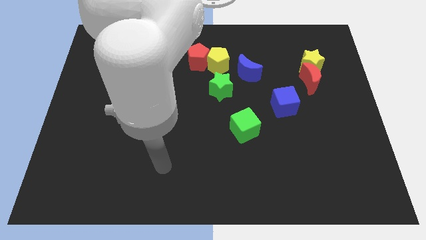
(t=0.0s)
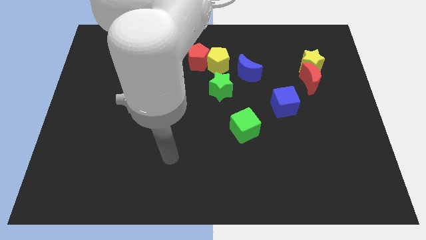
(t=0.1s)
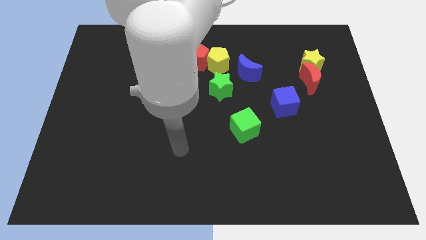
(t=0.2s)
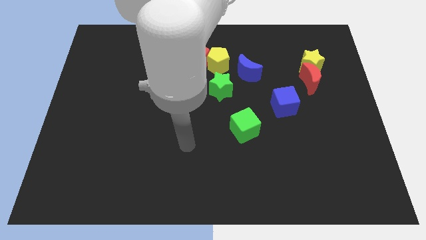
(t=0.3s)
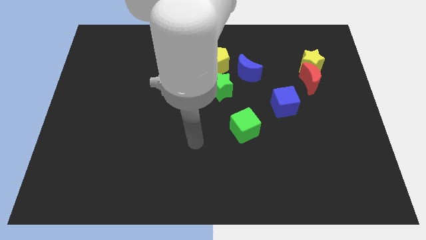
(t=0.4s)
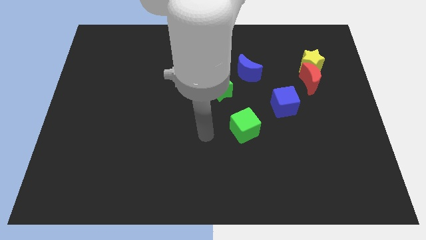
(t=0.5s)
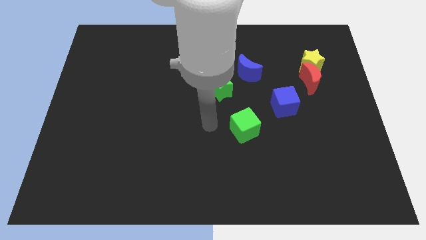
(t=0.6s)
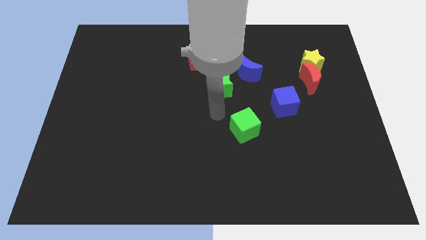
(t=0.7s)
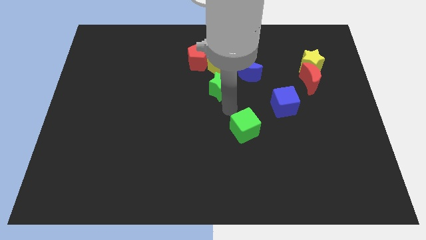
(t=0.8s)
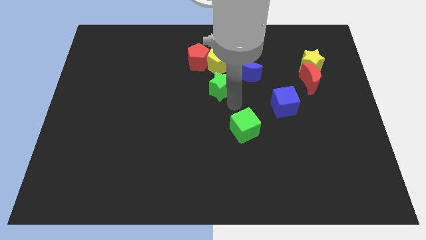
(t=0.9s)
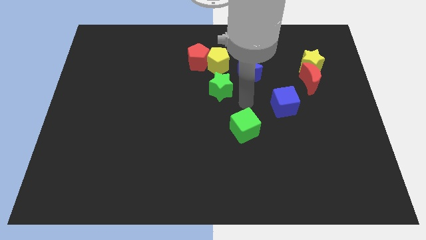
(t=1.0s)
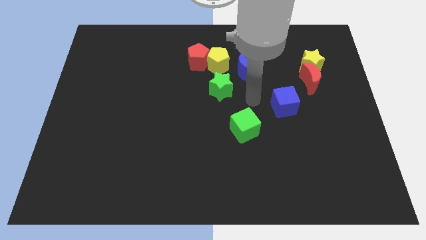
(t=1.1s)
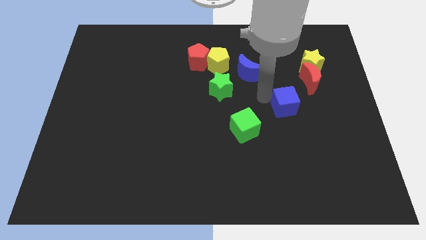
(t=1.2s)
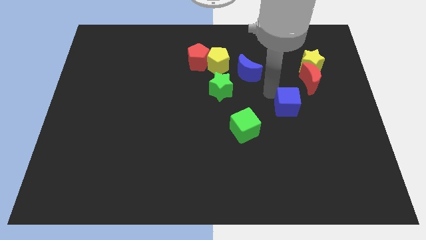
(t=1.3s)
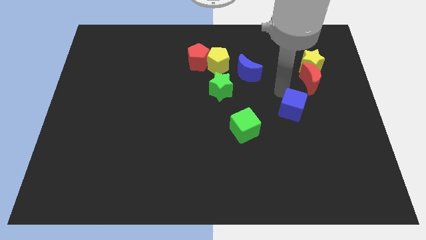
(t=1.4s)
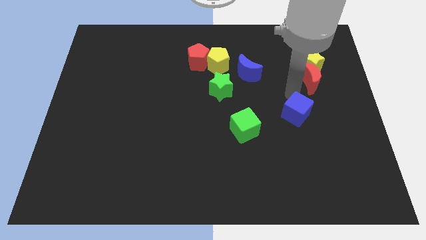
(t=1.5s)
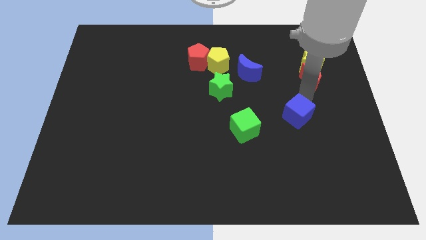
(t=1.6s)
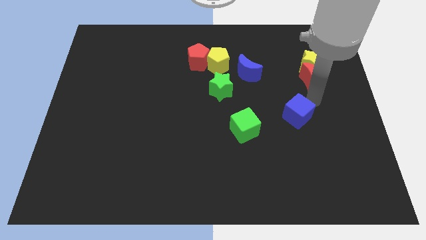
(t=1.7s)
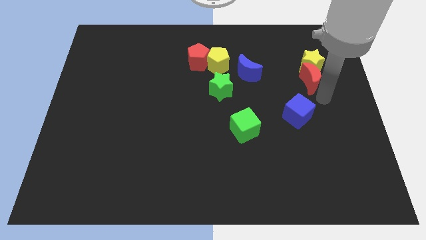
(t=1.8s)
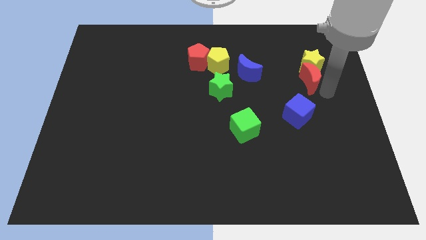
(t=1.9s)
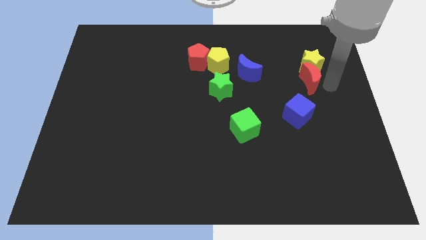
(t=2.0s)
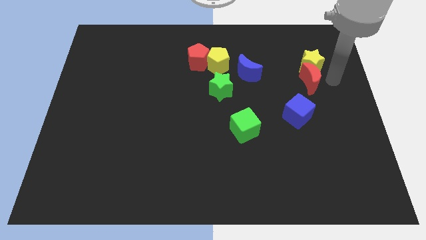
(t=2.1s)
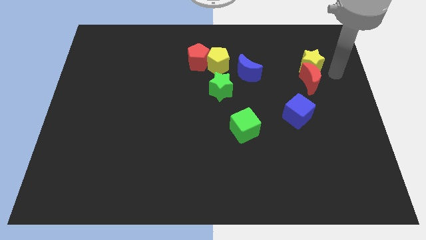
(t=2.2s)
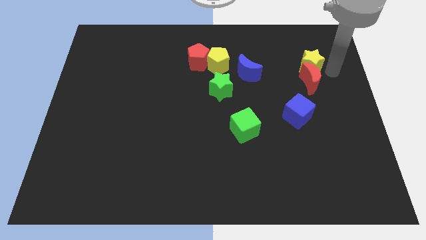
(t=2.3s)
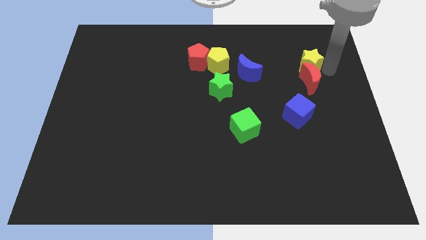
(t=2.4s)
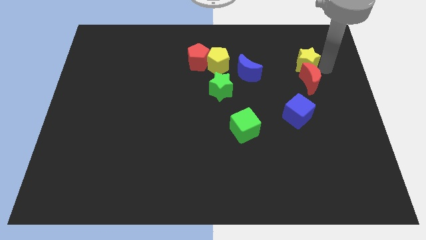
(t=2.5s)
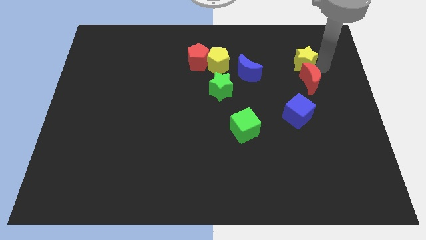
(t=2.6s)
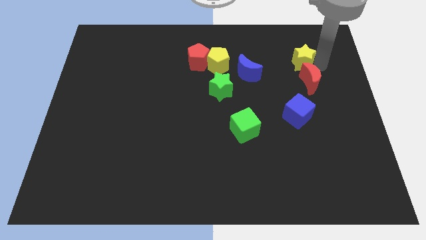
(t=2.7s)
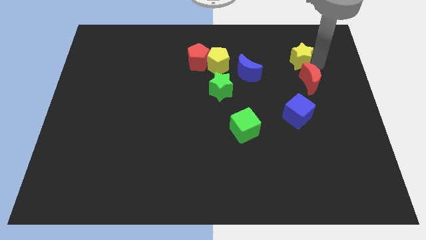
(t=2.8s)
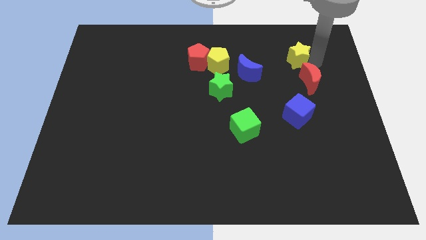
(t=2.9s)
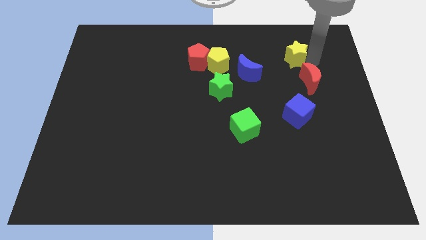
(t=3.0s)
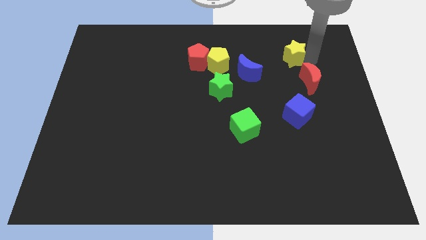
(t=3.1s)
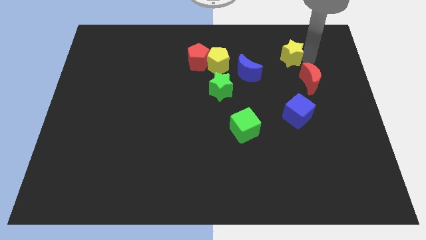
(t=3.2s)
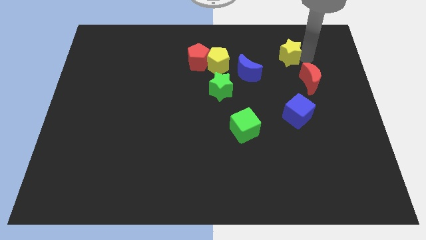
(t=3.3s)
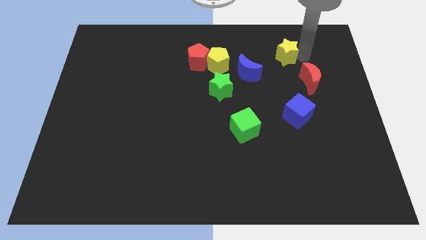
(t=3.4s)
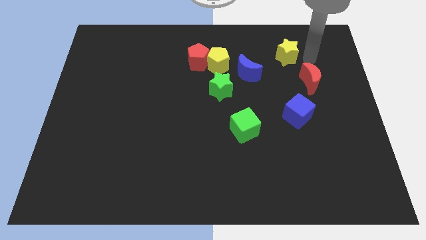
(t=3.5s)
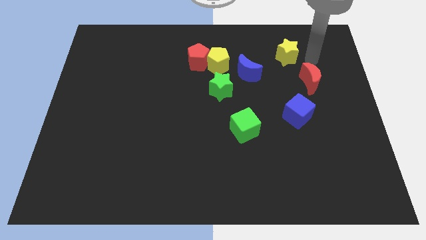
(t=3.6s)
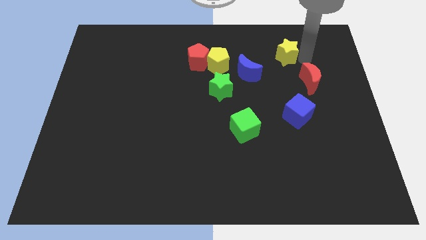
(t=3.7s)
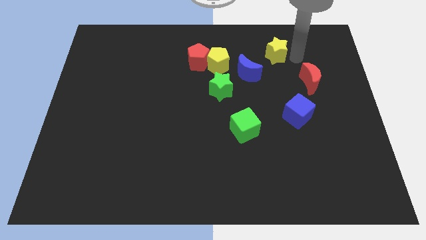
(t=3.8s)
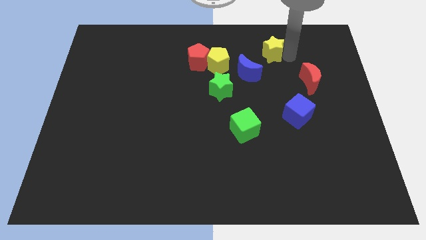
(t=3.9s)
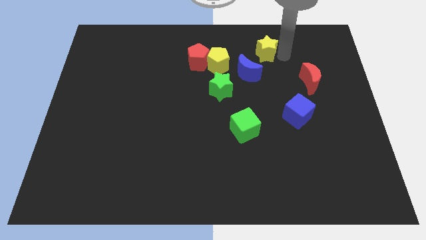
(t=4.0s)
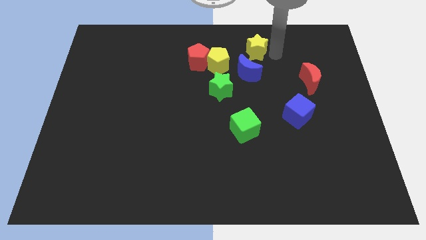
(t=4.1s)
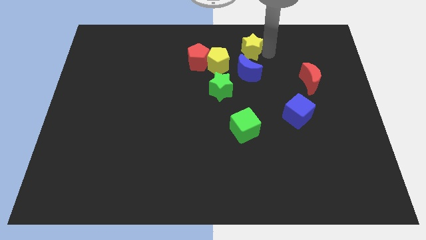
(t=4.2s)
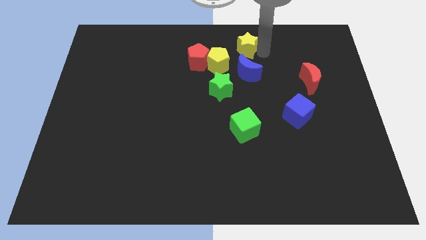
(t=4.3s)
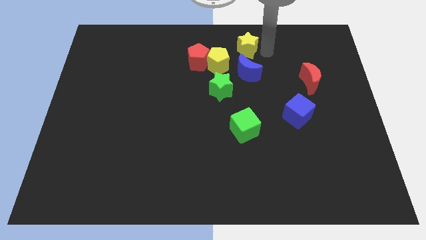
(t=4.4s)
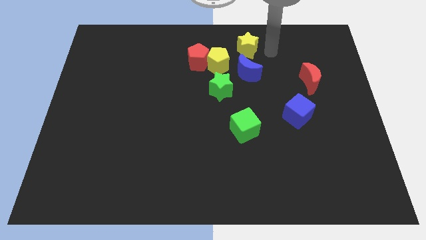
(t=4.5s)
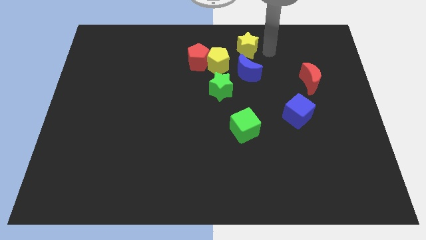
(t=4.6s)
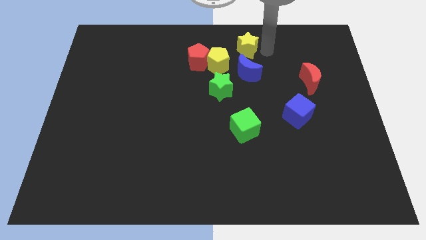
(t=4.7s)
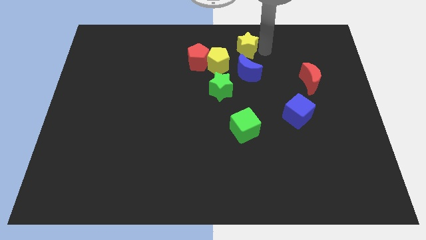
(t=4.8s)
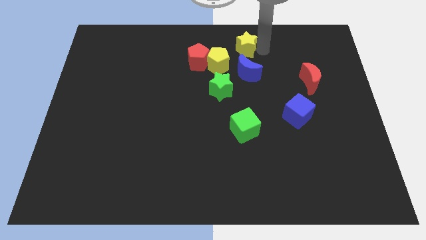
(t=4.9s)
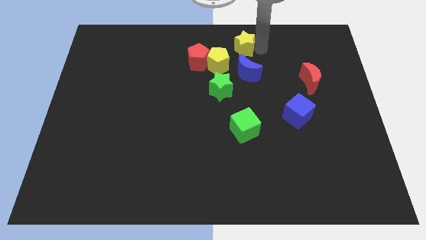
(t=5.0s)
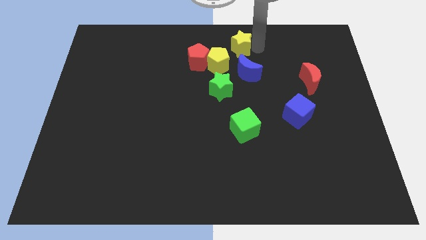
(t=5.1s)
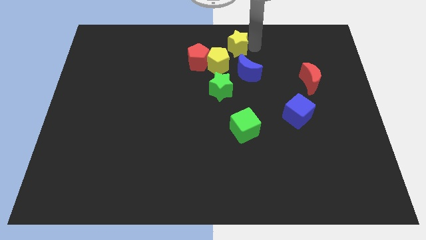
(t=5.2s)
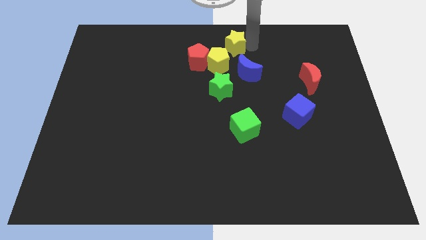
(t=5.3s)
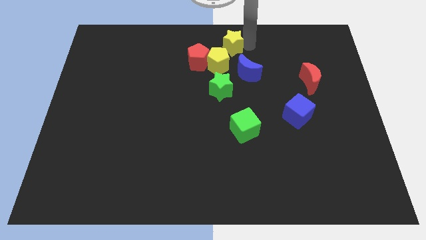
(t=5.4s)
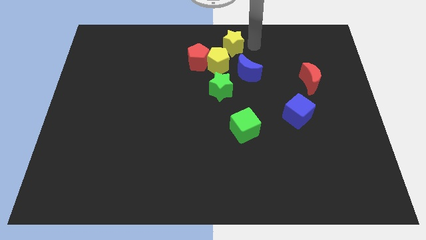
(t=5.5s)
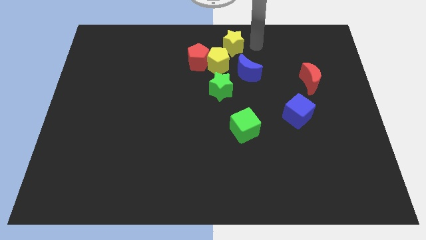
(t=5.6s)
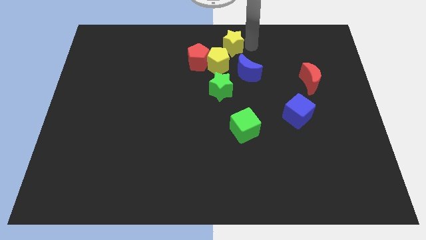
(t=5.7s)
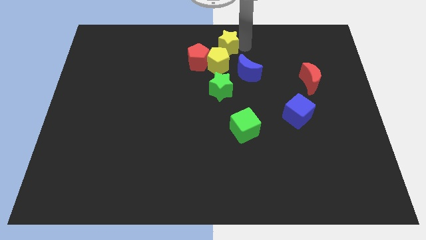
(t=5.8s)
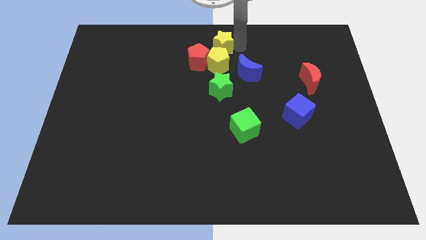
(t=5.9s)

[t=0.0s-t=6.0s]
move the yellow star to the left

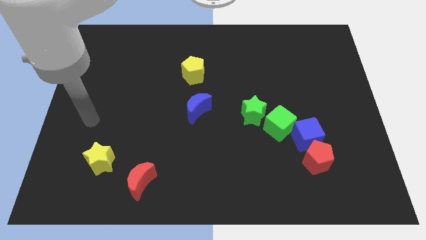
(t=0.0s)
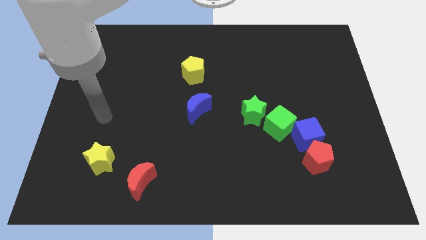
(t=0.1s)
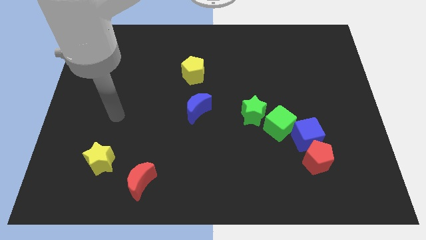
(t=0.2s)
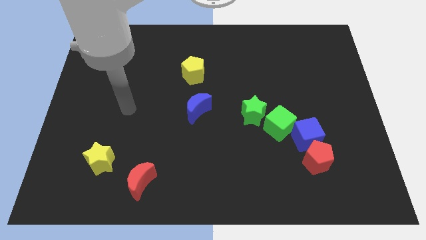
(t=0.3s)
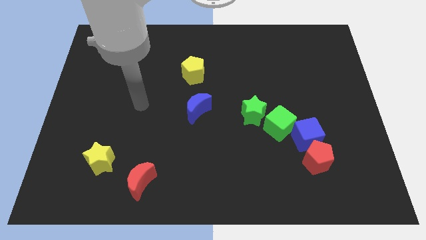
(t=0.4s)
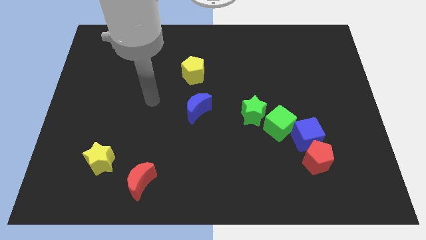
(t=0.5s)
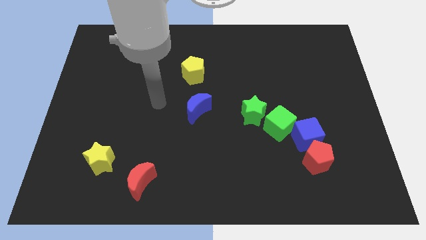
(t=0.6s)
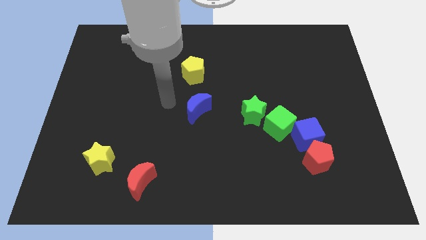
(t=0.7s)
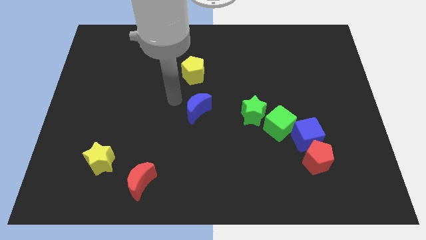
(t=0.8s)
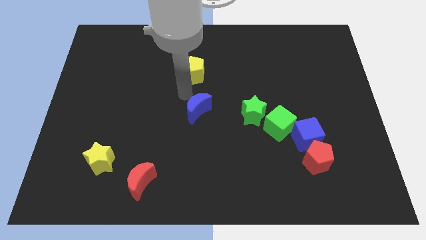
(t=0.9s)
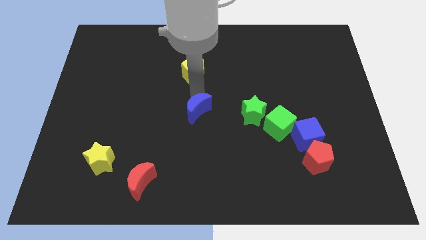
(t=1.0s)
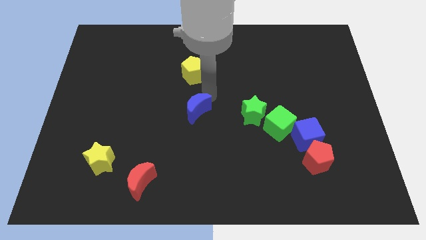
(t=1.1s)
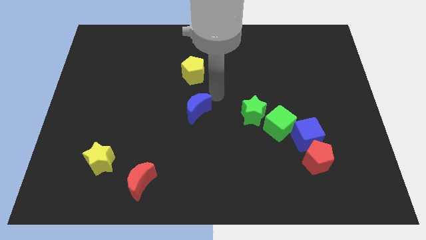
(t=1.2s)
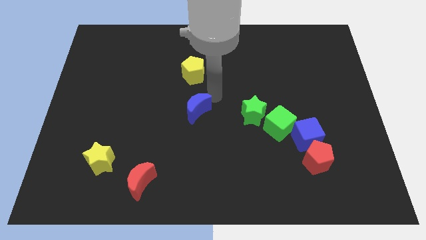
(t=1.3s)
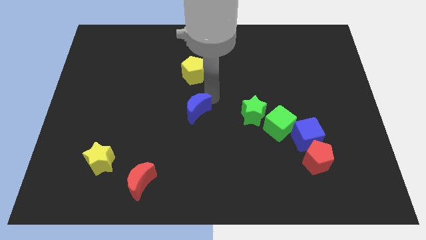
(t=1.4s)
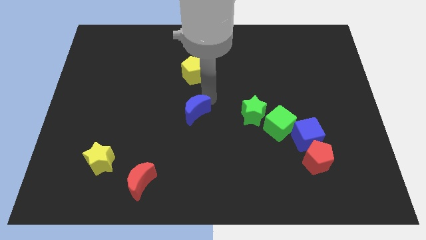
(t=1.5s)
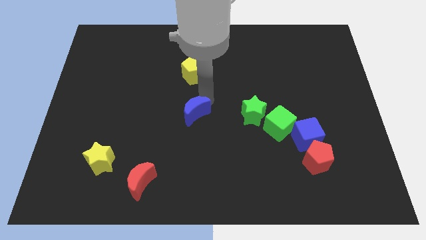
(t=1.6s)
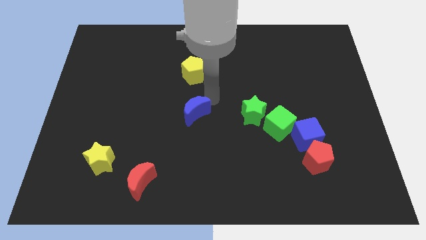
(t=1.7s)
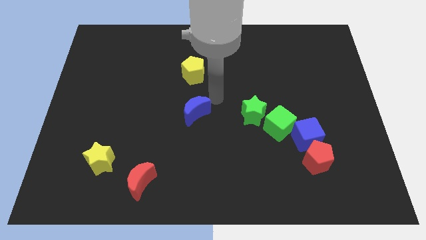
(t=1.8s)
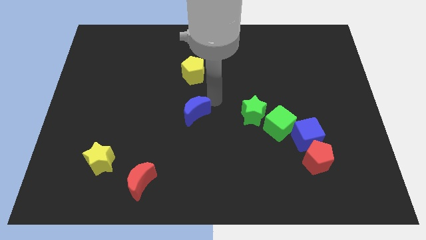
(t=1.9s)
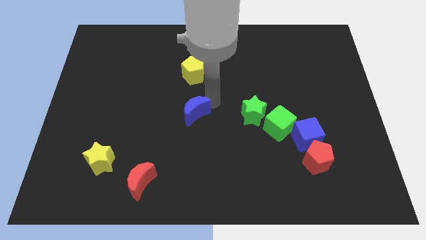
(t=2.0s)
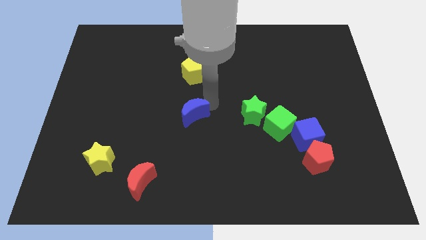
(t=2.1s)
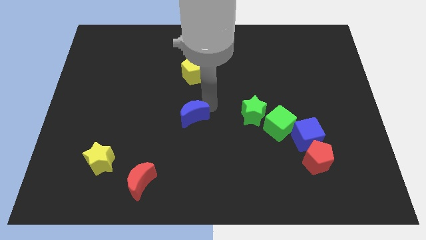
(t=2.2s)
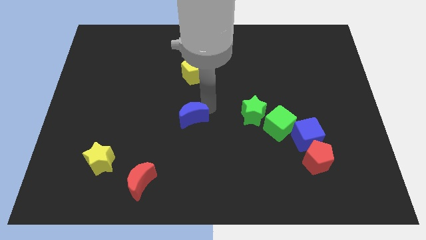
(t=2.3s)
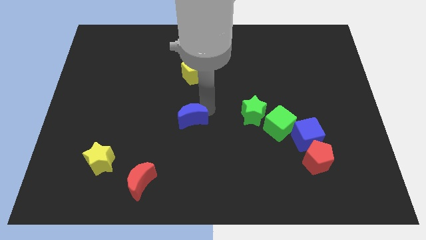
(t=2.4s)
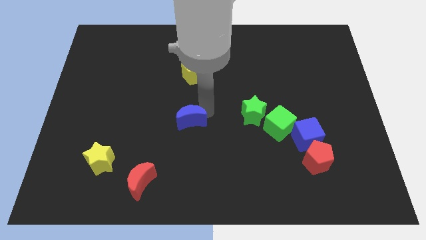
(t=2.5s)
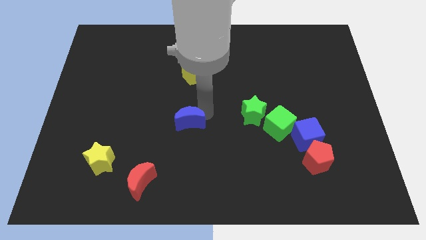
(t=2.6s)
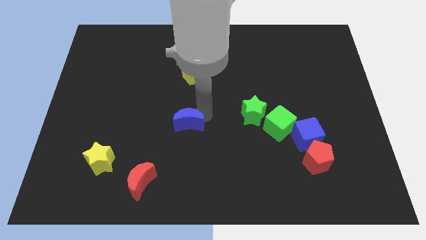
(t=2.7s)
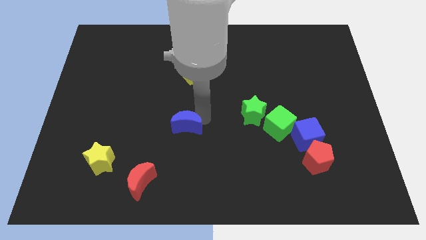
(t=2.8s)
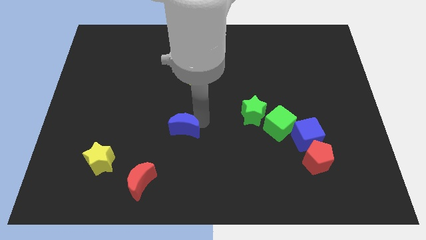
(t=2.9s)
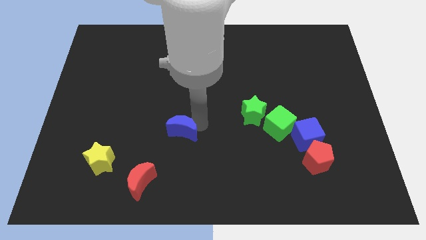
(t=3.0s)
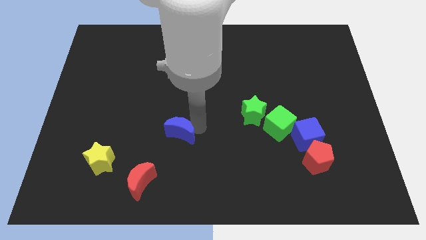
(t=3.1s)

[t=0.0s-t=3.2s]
push the blue moon downwards and left a little
